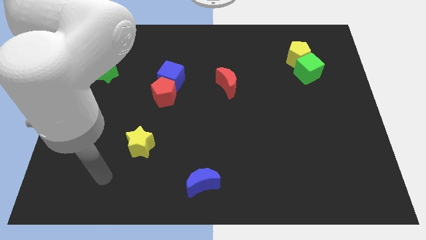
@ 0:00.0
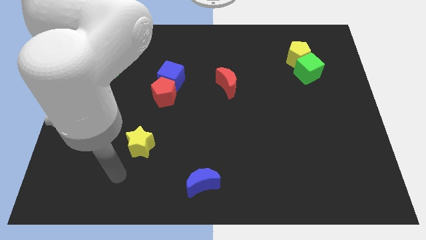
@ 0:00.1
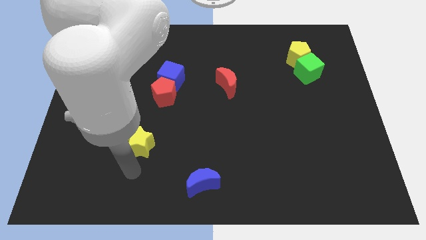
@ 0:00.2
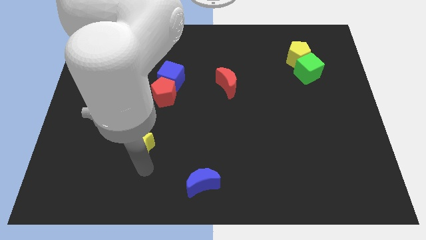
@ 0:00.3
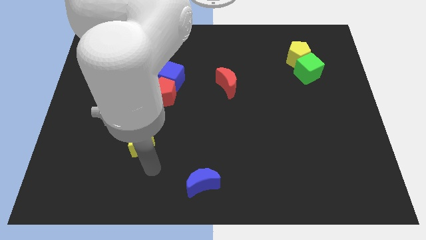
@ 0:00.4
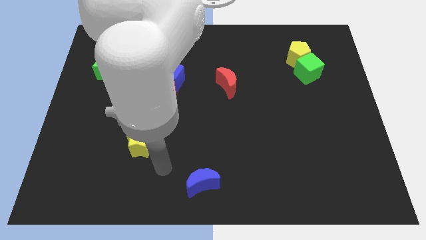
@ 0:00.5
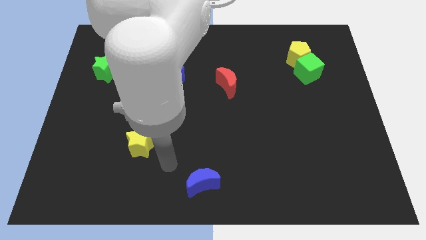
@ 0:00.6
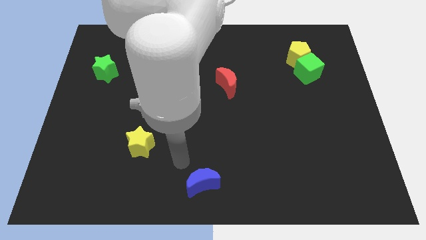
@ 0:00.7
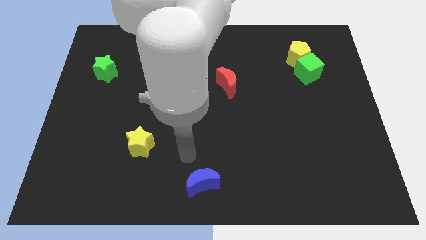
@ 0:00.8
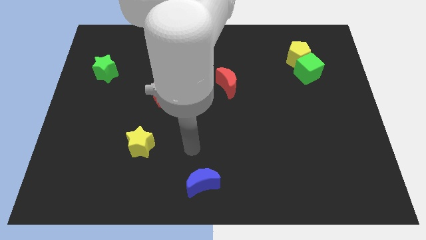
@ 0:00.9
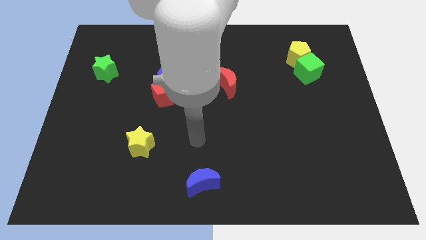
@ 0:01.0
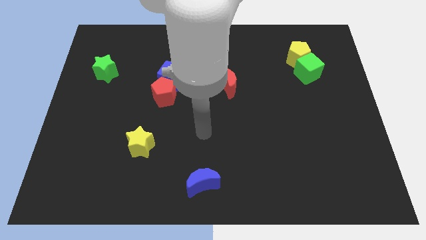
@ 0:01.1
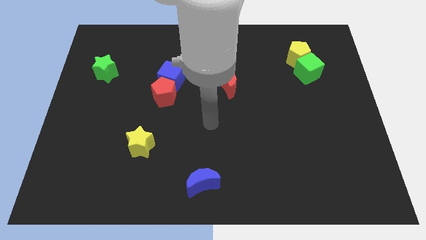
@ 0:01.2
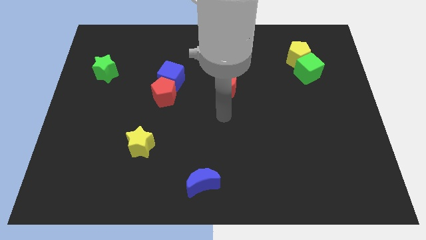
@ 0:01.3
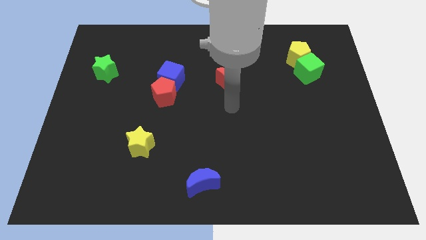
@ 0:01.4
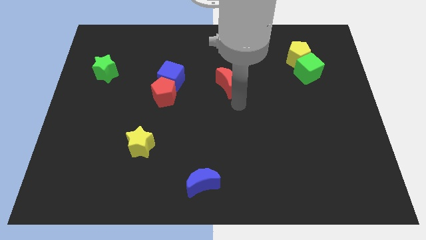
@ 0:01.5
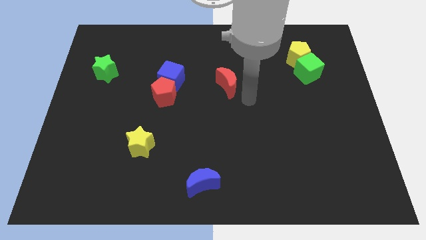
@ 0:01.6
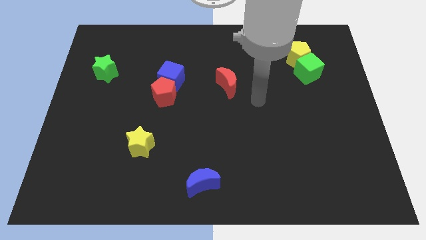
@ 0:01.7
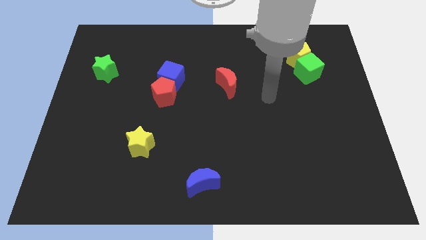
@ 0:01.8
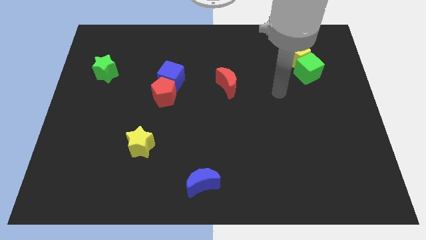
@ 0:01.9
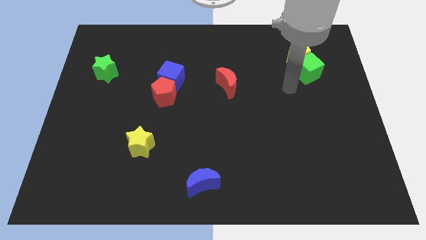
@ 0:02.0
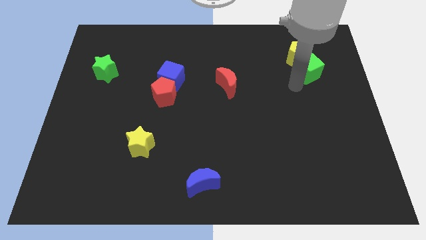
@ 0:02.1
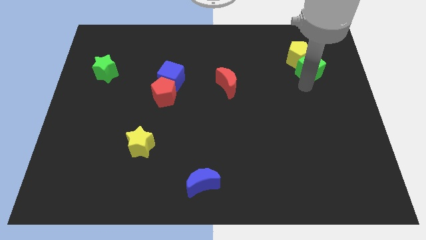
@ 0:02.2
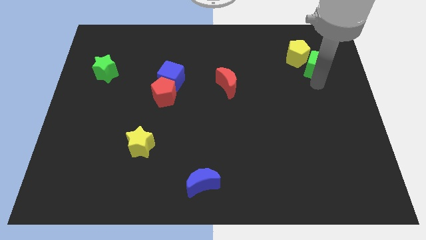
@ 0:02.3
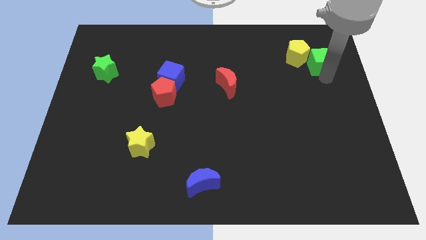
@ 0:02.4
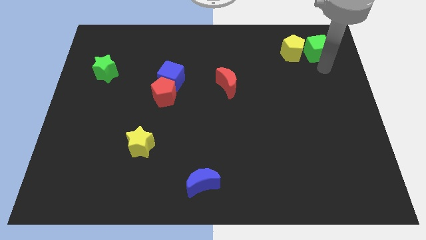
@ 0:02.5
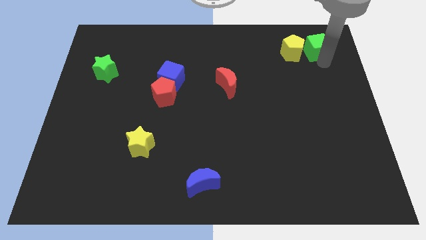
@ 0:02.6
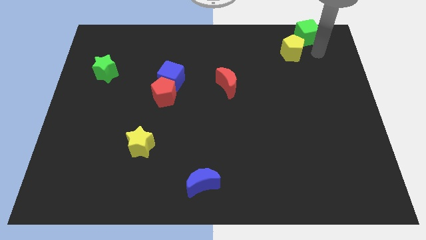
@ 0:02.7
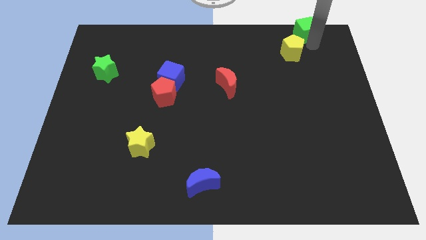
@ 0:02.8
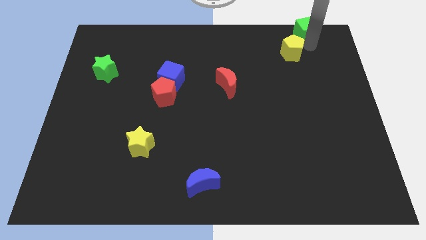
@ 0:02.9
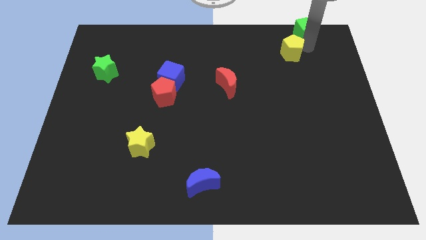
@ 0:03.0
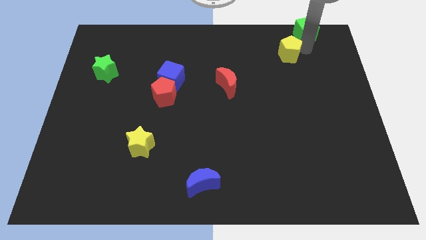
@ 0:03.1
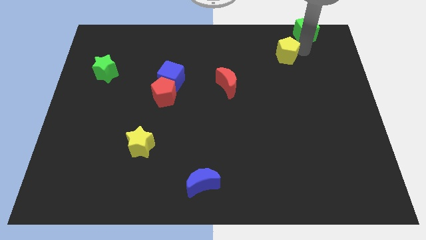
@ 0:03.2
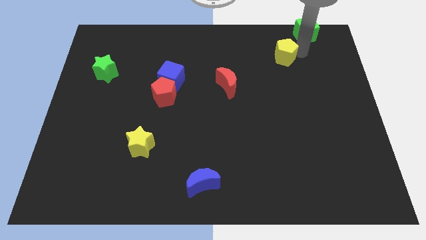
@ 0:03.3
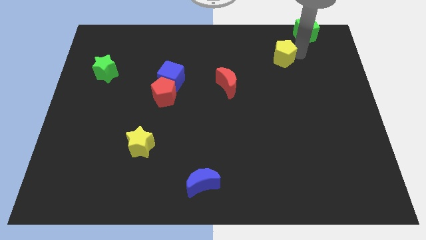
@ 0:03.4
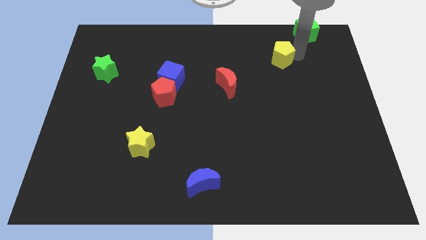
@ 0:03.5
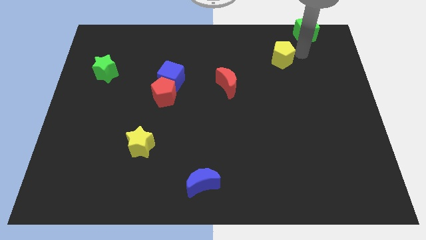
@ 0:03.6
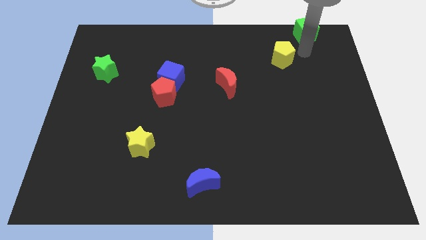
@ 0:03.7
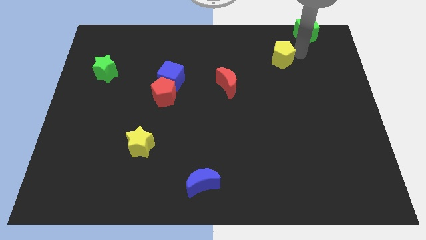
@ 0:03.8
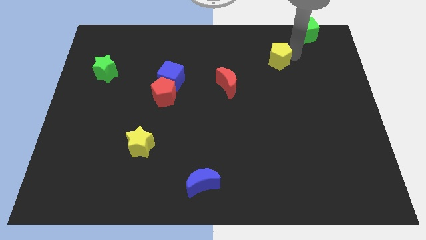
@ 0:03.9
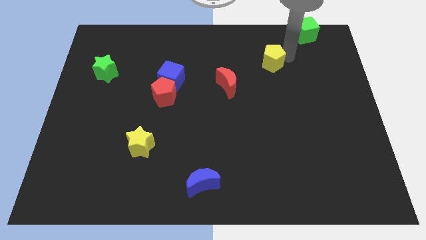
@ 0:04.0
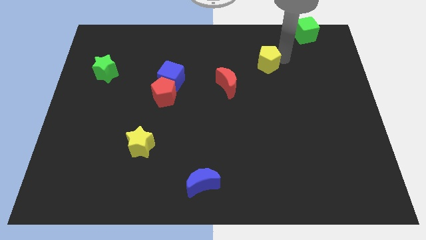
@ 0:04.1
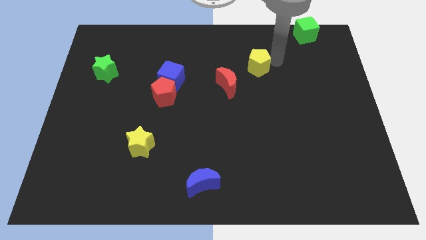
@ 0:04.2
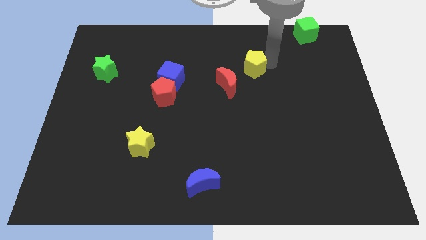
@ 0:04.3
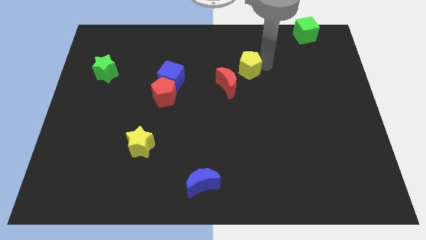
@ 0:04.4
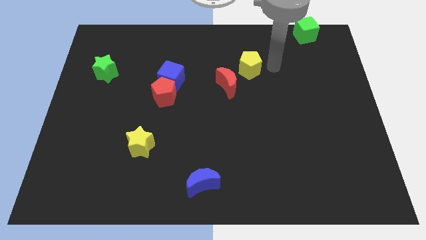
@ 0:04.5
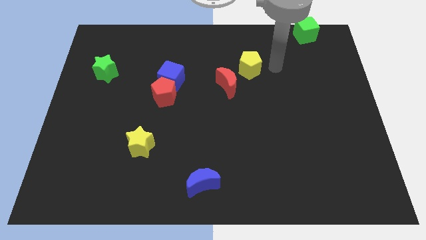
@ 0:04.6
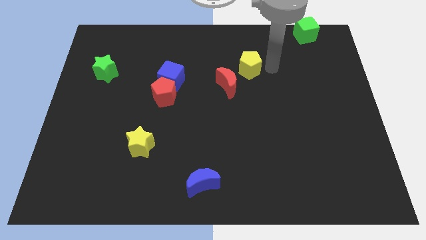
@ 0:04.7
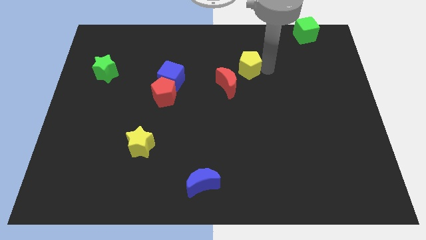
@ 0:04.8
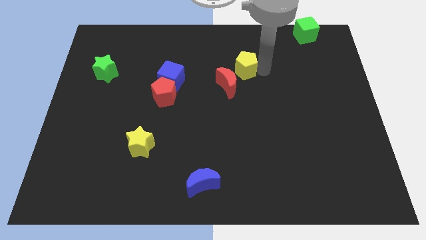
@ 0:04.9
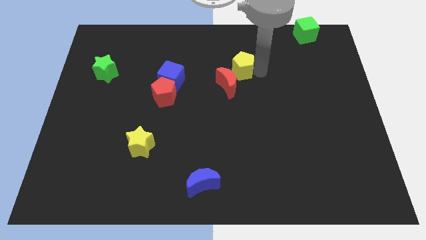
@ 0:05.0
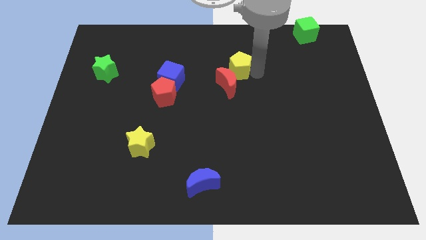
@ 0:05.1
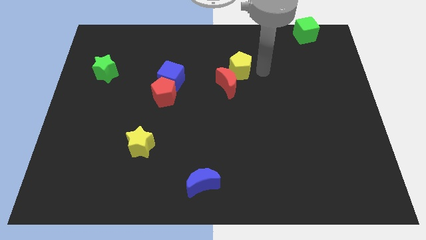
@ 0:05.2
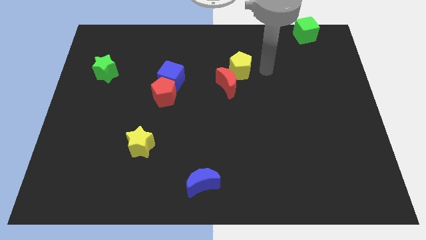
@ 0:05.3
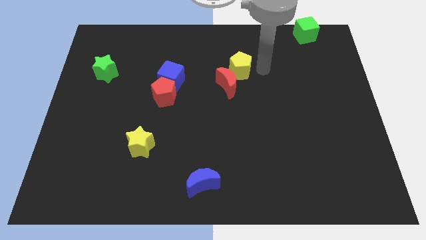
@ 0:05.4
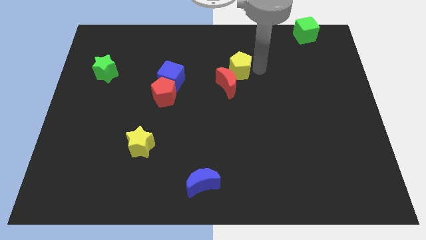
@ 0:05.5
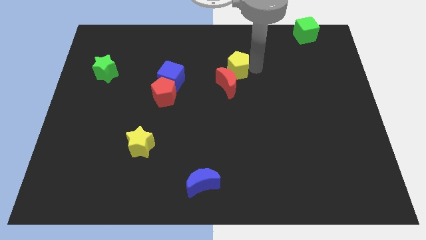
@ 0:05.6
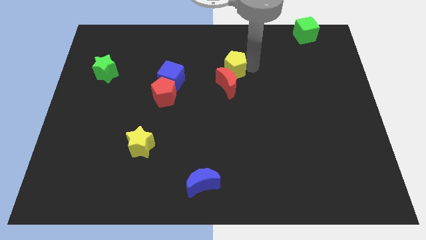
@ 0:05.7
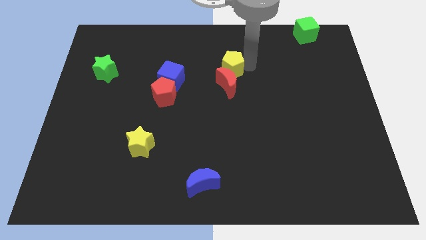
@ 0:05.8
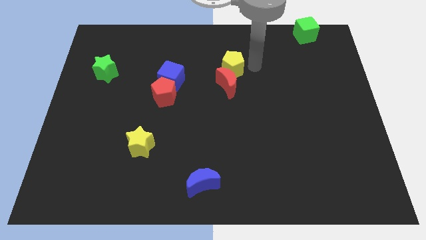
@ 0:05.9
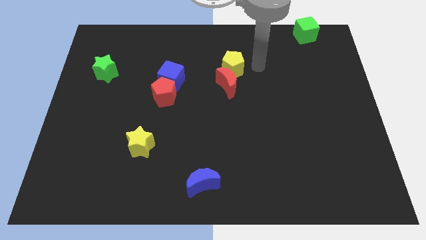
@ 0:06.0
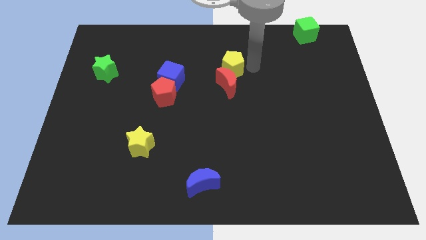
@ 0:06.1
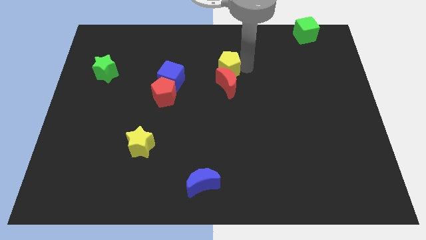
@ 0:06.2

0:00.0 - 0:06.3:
put the yellow pentagon to the top left of the red moon

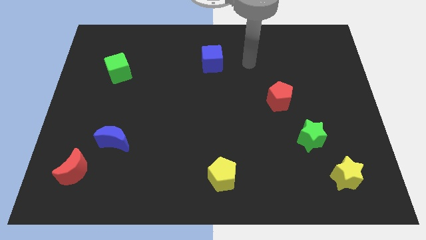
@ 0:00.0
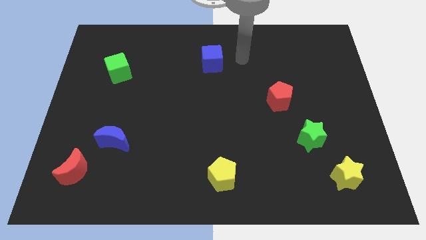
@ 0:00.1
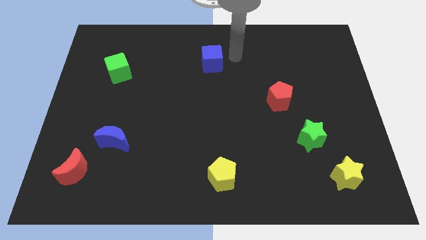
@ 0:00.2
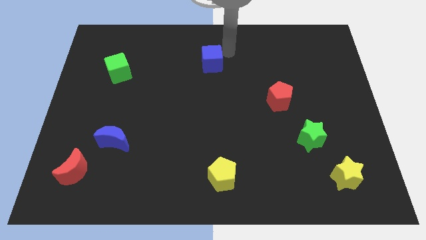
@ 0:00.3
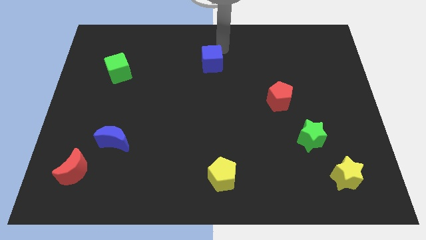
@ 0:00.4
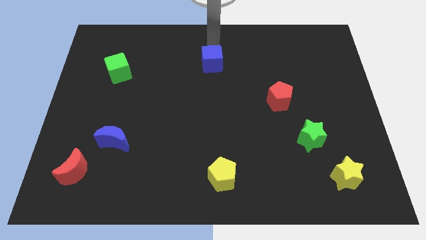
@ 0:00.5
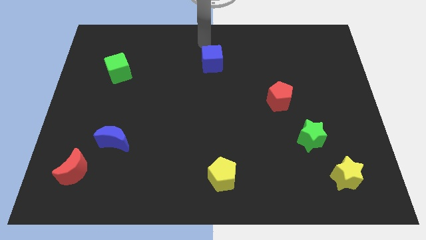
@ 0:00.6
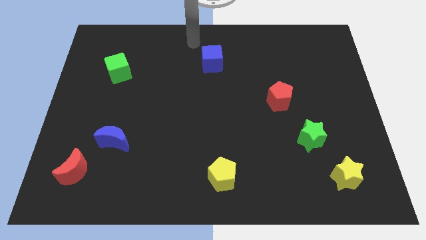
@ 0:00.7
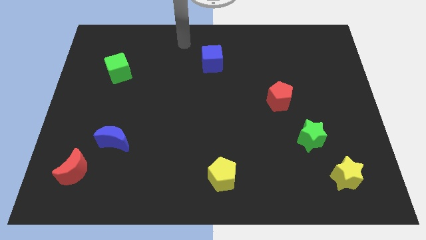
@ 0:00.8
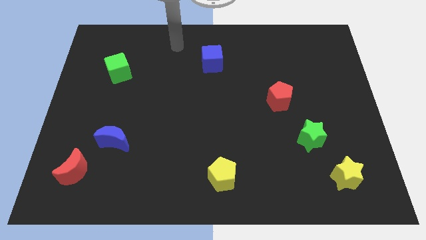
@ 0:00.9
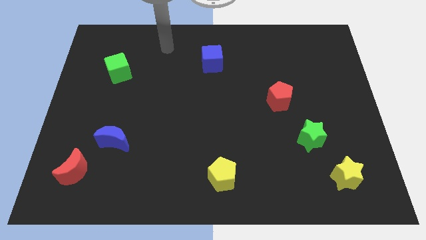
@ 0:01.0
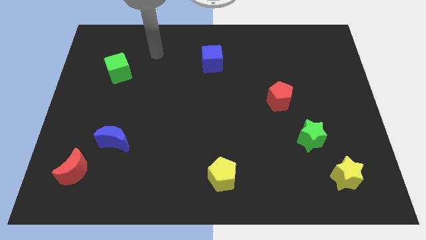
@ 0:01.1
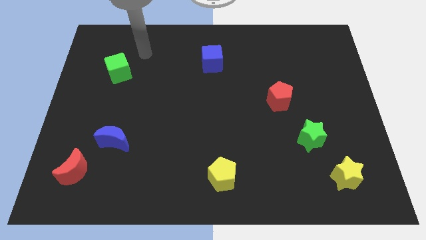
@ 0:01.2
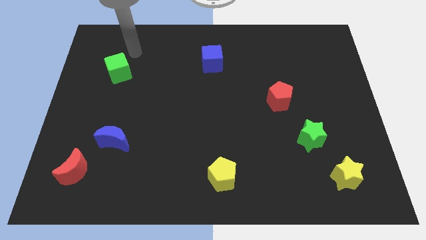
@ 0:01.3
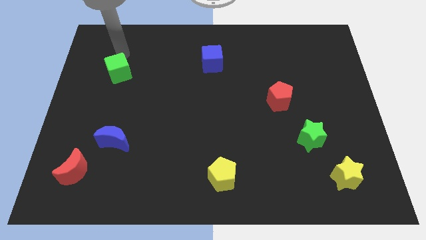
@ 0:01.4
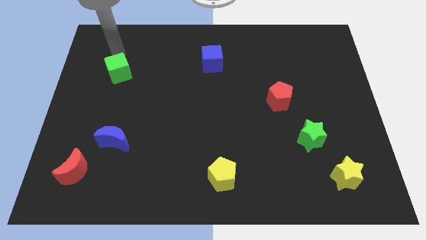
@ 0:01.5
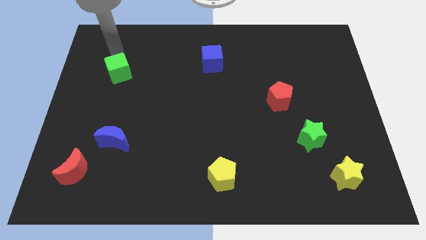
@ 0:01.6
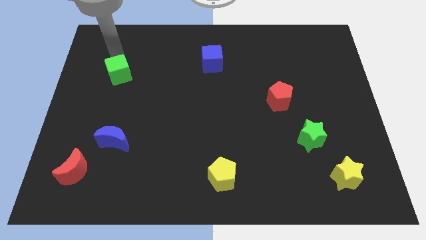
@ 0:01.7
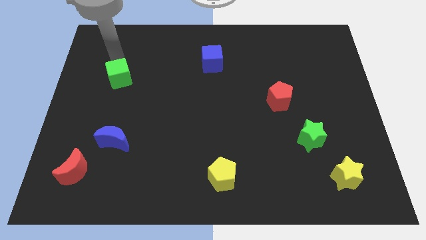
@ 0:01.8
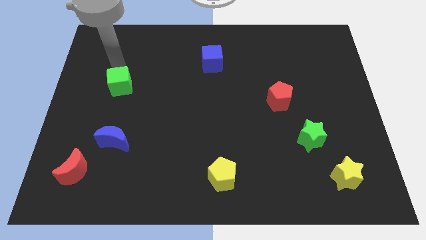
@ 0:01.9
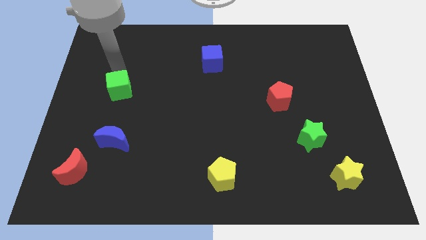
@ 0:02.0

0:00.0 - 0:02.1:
put the green cube above the blue moon
